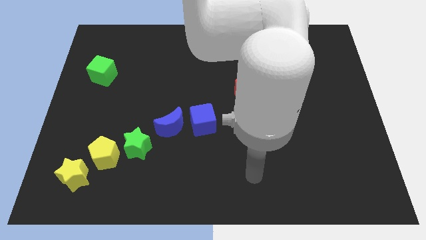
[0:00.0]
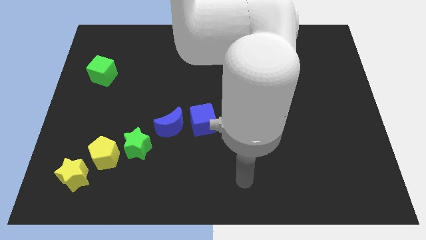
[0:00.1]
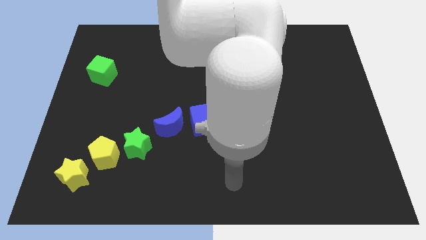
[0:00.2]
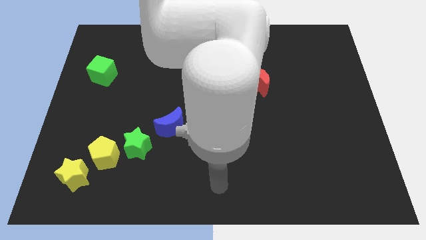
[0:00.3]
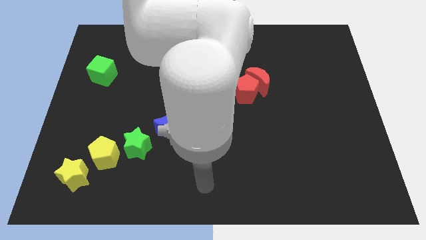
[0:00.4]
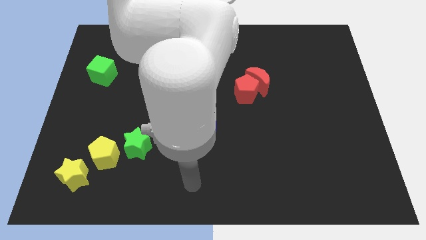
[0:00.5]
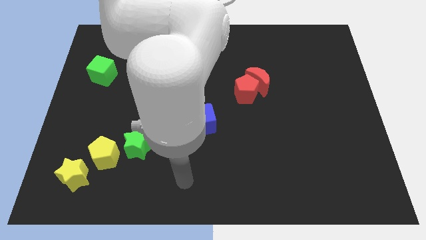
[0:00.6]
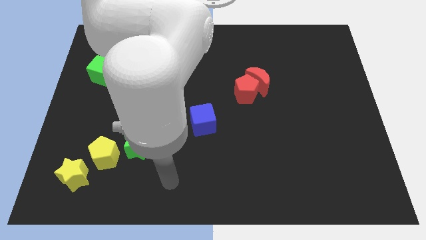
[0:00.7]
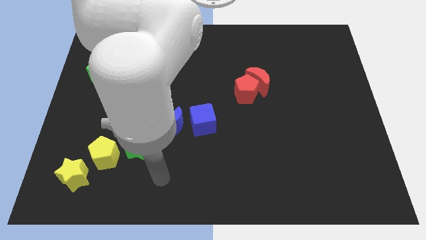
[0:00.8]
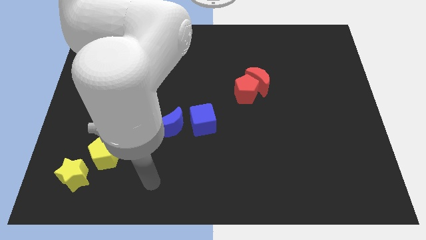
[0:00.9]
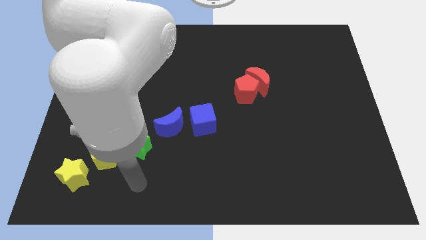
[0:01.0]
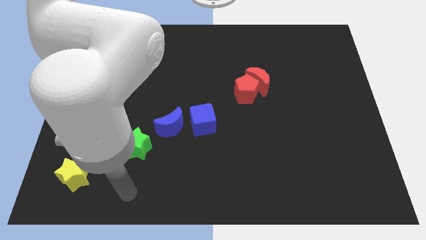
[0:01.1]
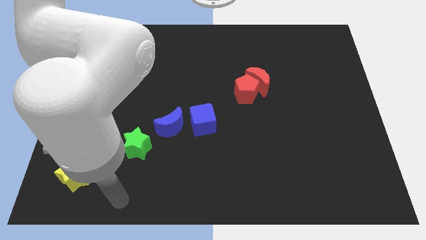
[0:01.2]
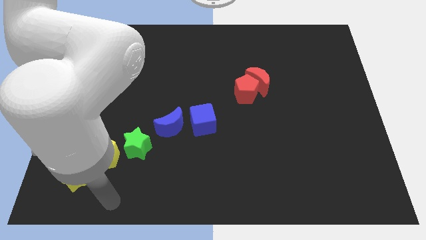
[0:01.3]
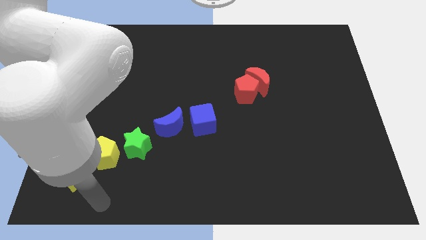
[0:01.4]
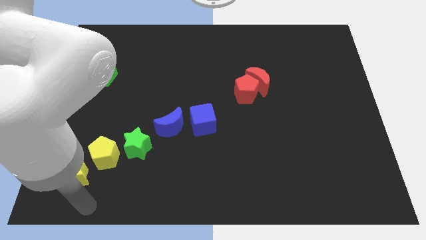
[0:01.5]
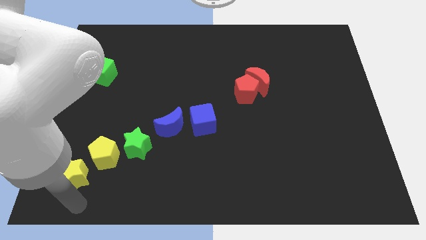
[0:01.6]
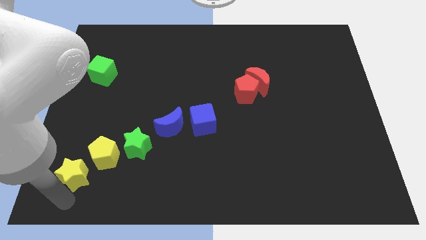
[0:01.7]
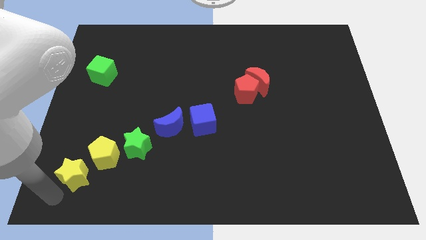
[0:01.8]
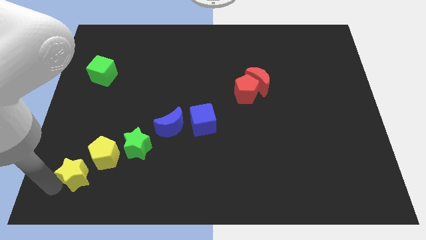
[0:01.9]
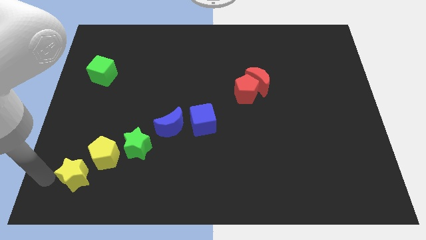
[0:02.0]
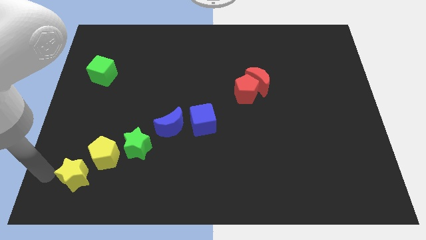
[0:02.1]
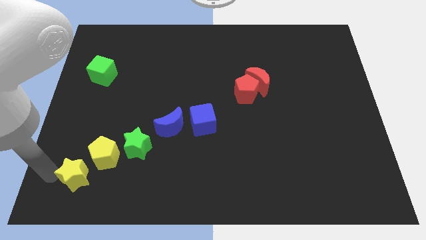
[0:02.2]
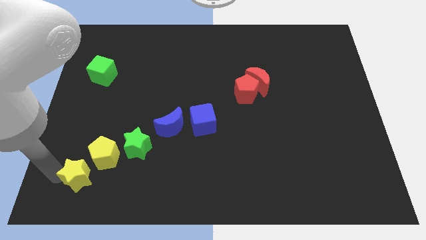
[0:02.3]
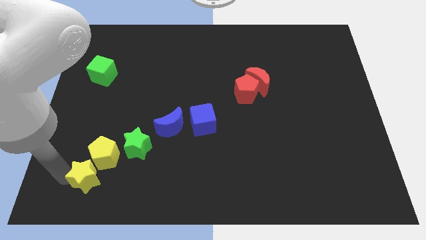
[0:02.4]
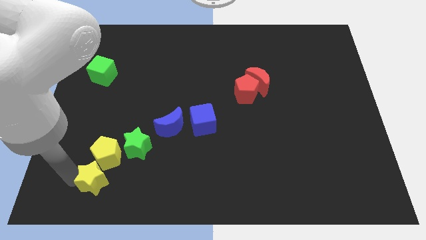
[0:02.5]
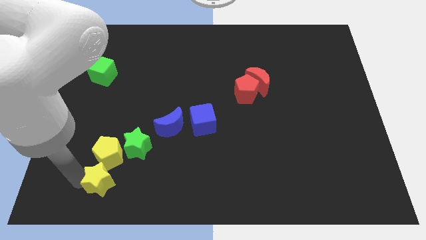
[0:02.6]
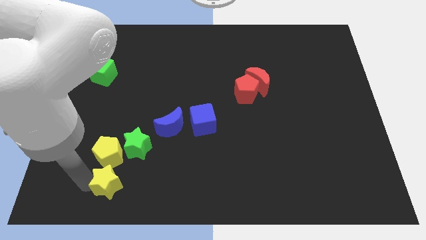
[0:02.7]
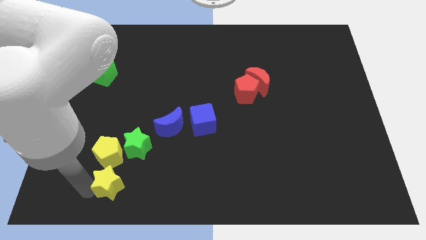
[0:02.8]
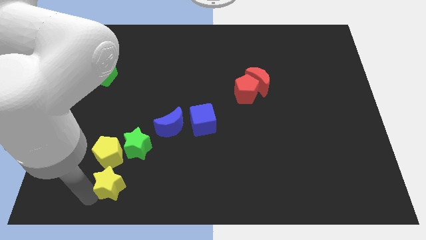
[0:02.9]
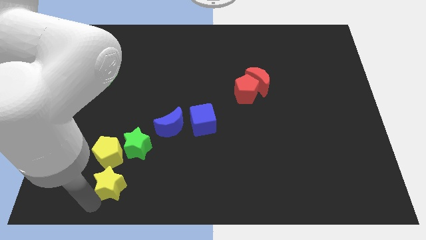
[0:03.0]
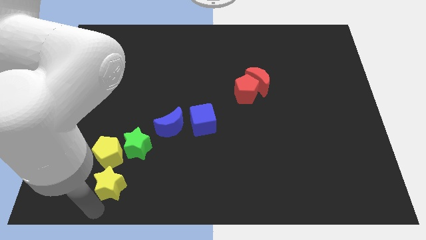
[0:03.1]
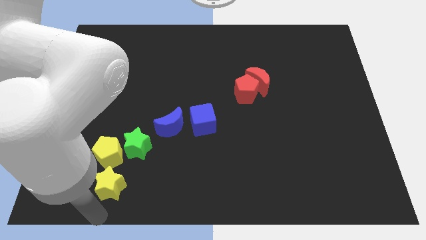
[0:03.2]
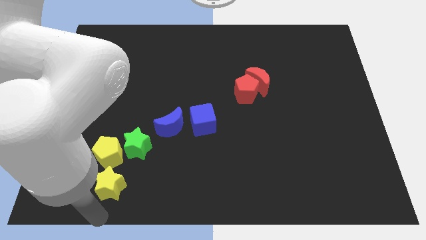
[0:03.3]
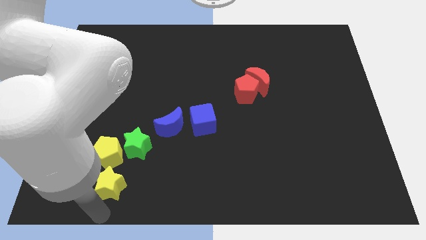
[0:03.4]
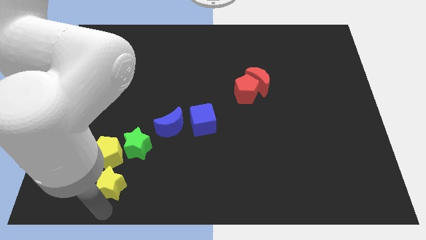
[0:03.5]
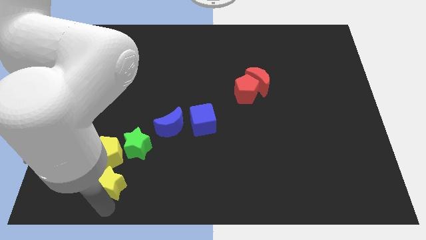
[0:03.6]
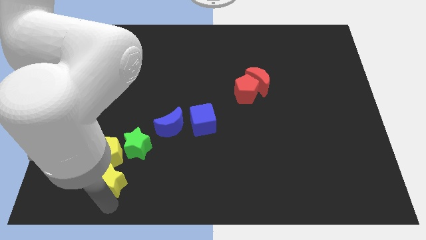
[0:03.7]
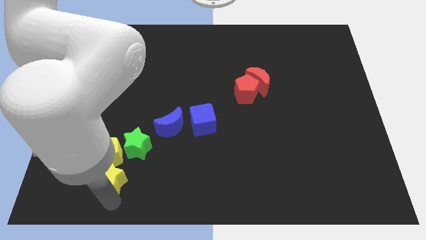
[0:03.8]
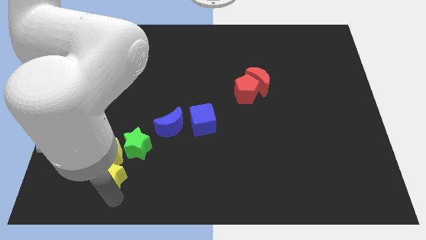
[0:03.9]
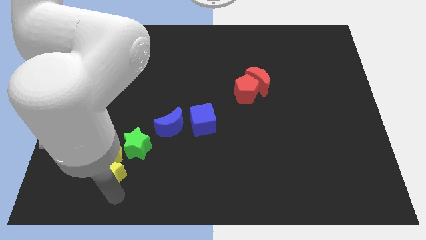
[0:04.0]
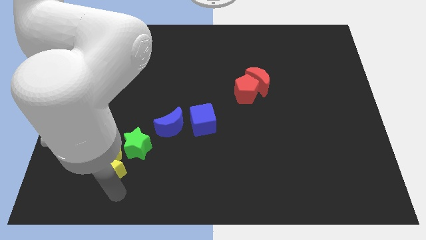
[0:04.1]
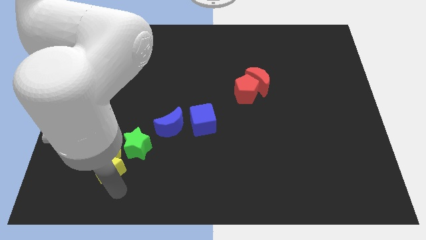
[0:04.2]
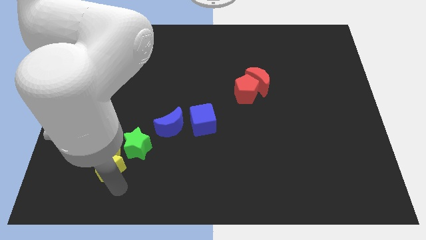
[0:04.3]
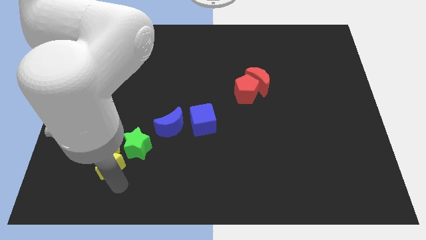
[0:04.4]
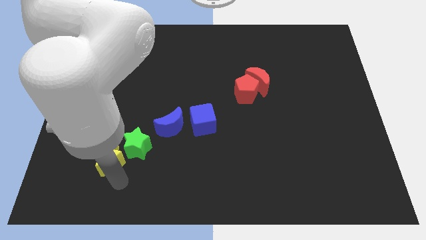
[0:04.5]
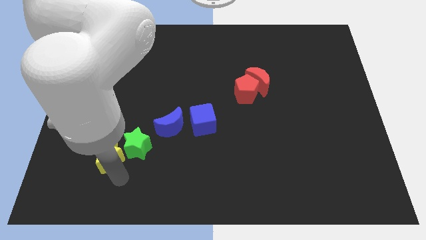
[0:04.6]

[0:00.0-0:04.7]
push the yellow star to the green star

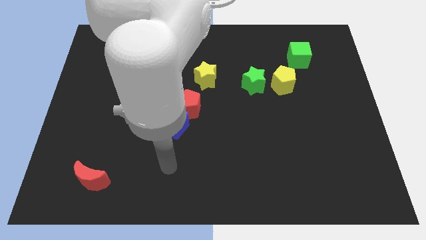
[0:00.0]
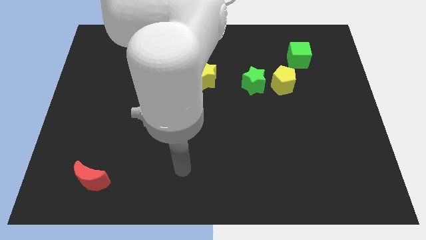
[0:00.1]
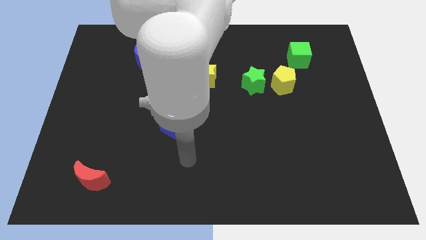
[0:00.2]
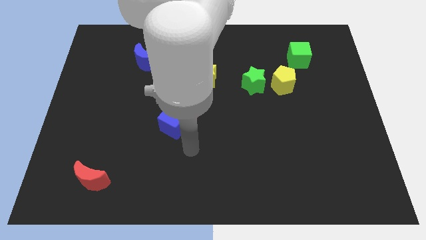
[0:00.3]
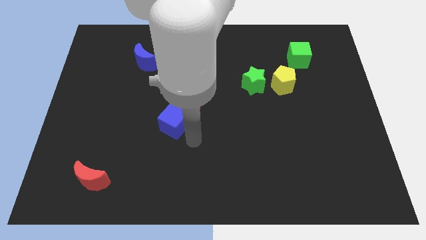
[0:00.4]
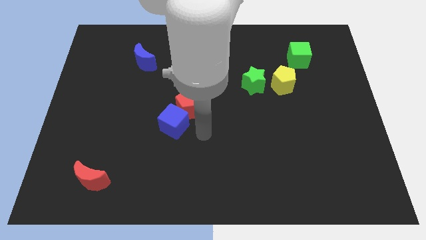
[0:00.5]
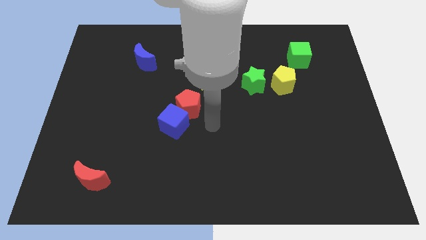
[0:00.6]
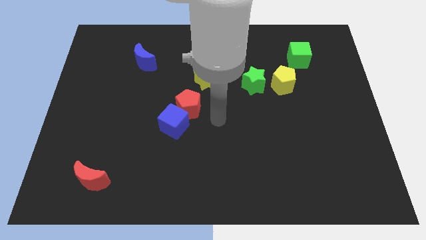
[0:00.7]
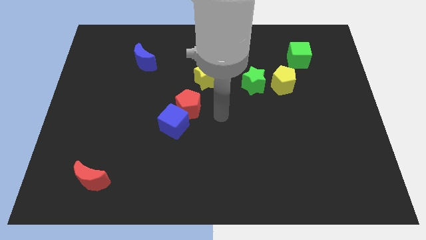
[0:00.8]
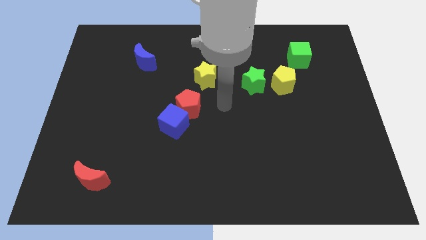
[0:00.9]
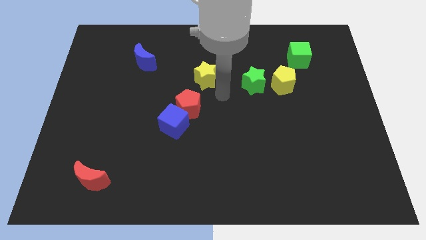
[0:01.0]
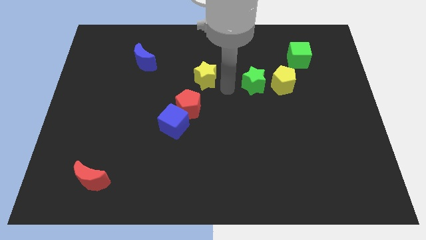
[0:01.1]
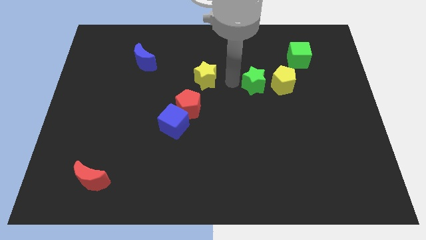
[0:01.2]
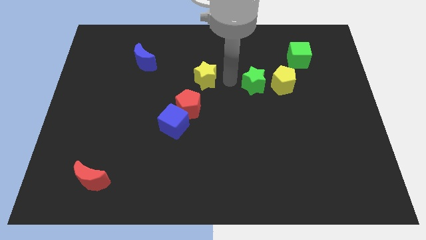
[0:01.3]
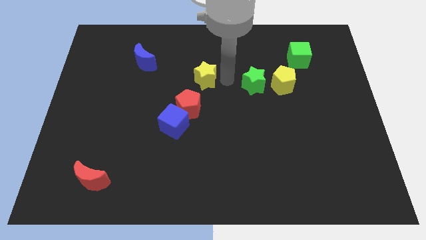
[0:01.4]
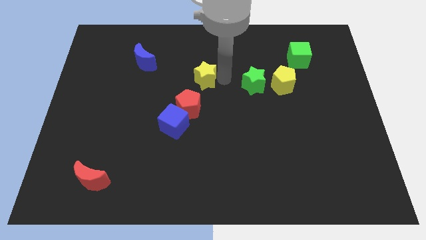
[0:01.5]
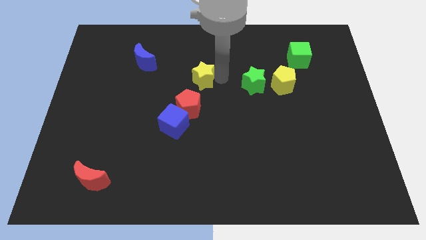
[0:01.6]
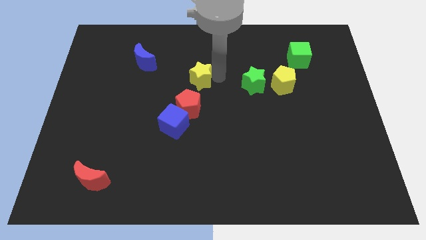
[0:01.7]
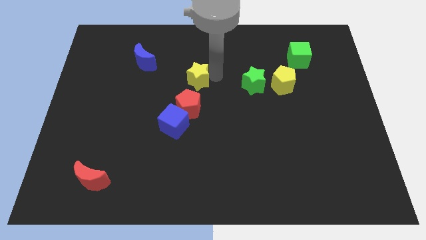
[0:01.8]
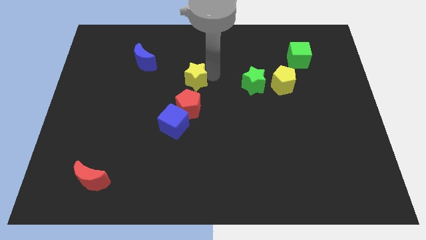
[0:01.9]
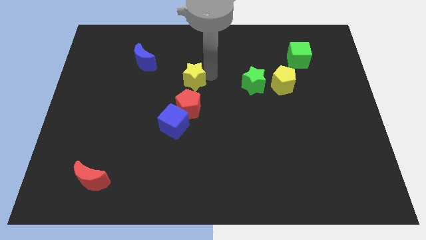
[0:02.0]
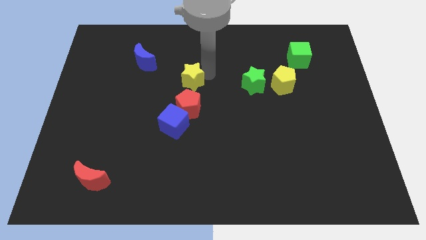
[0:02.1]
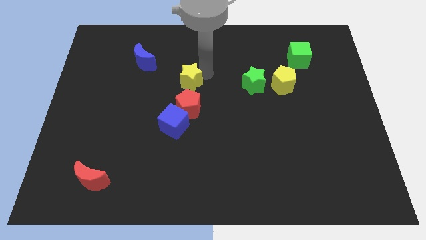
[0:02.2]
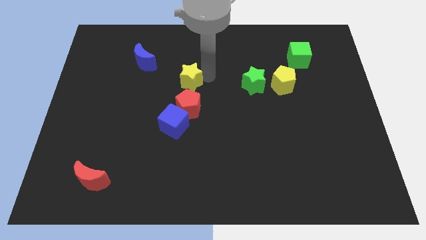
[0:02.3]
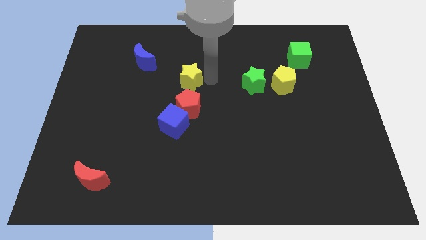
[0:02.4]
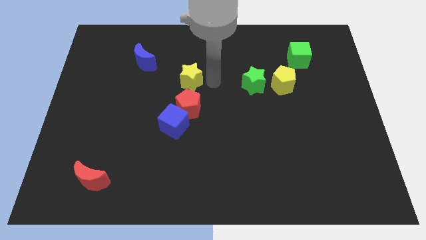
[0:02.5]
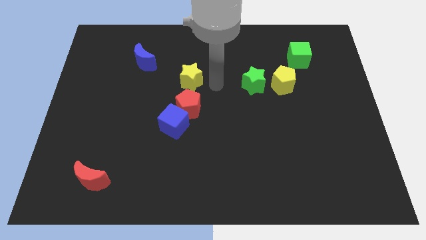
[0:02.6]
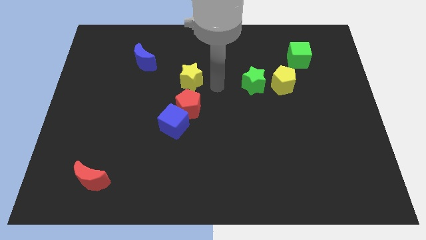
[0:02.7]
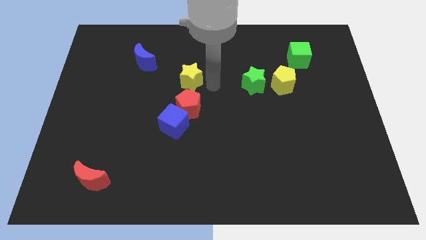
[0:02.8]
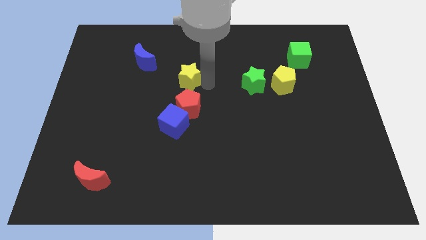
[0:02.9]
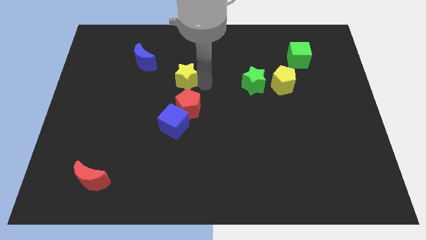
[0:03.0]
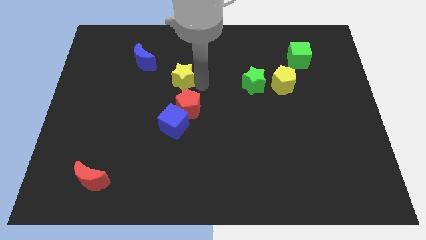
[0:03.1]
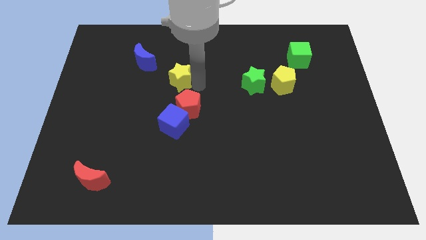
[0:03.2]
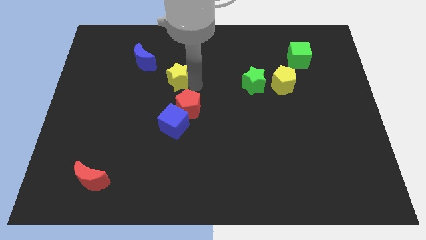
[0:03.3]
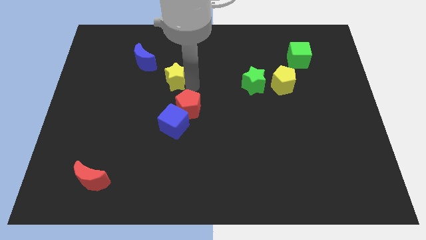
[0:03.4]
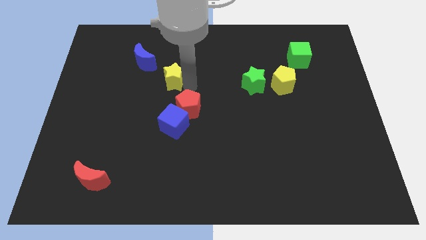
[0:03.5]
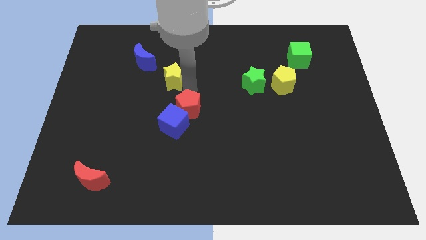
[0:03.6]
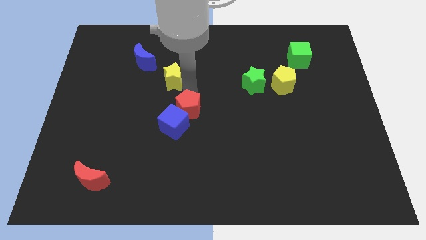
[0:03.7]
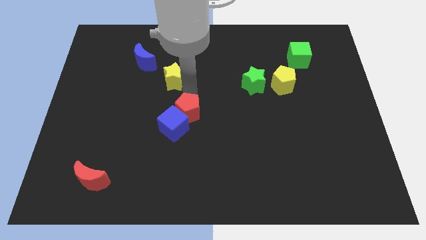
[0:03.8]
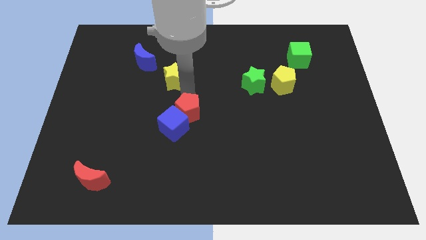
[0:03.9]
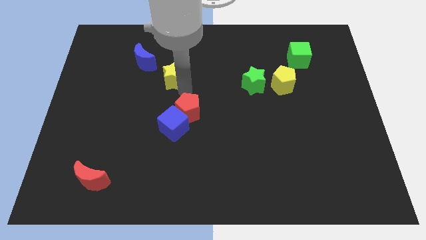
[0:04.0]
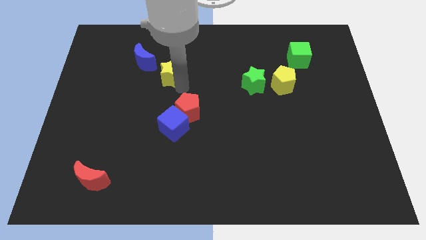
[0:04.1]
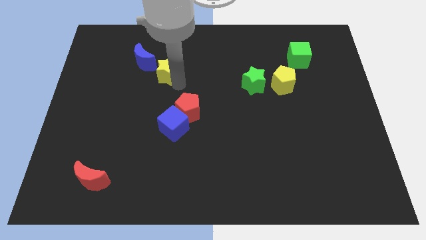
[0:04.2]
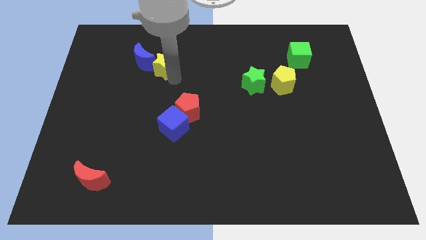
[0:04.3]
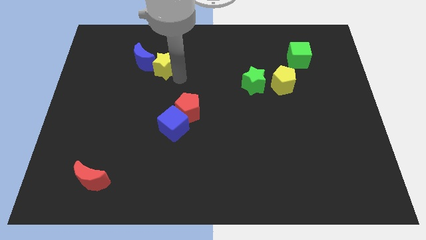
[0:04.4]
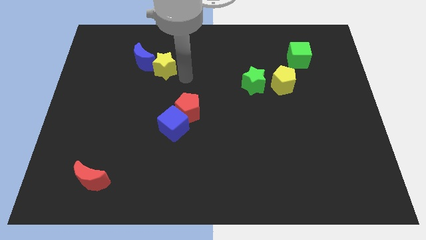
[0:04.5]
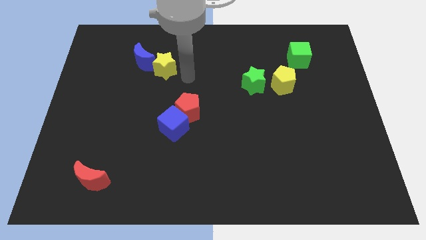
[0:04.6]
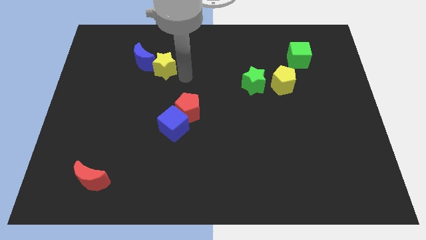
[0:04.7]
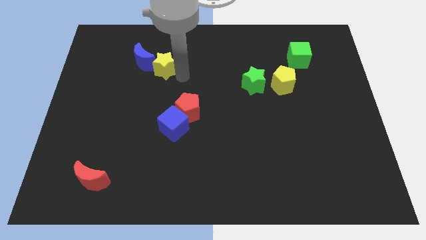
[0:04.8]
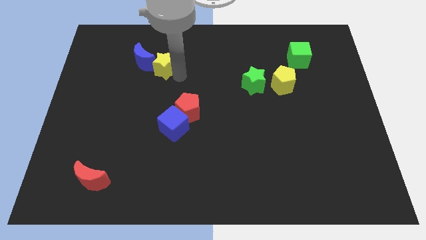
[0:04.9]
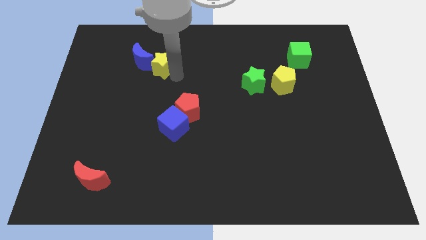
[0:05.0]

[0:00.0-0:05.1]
slide the yellow star towards the blue moon
